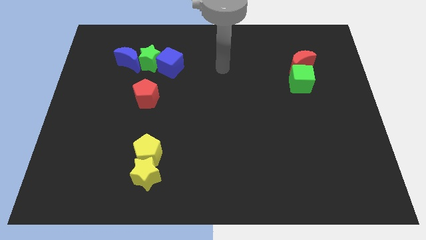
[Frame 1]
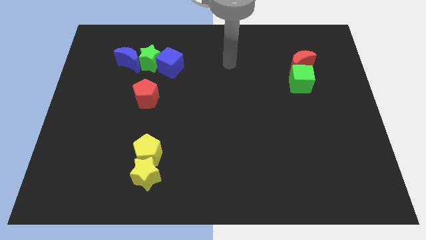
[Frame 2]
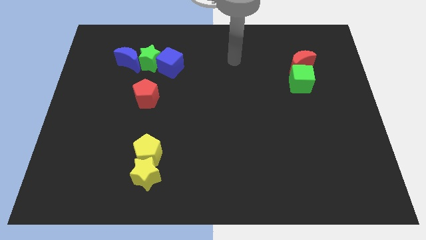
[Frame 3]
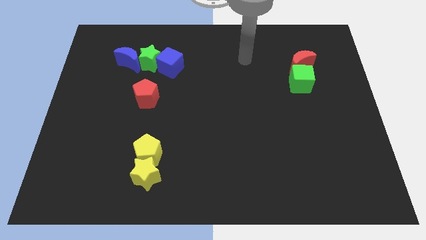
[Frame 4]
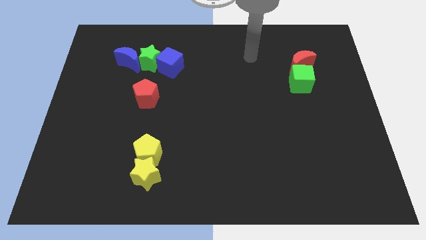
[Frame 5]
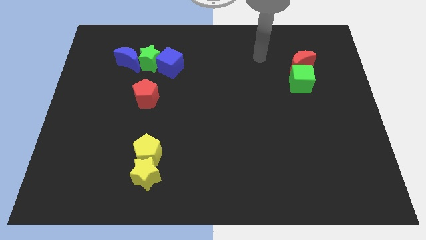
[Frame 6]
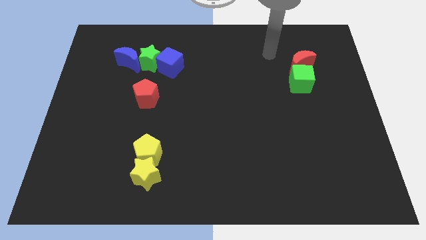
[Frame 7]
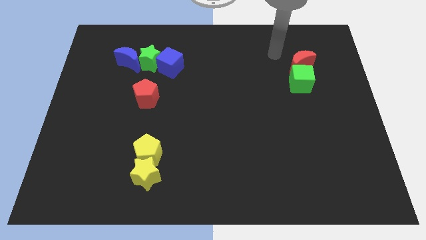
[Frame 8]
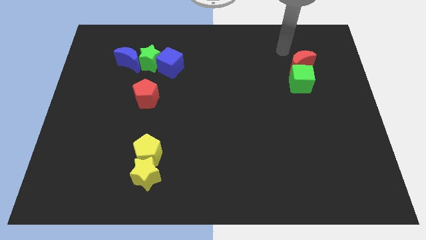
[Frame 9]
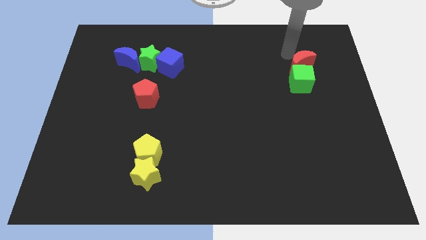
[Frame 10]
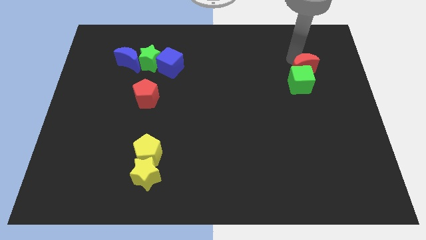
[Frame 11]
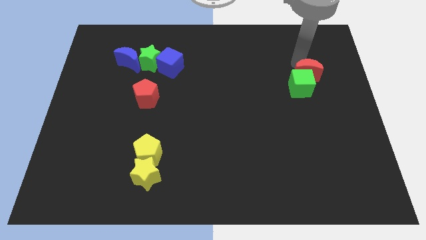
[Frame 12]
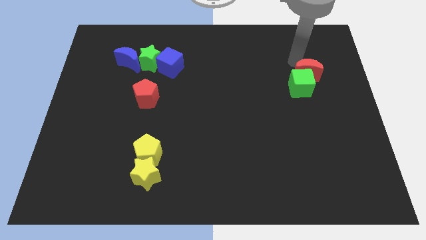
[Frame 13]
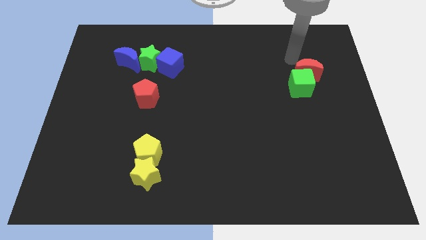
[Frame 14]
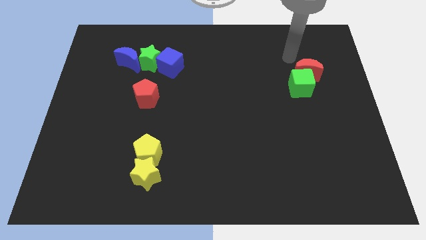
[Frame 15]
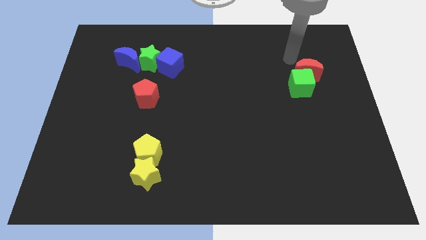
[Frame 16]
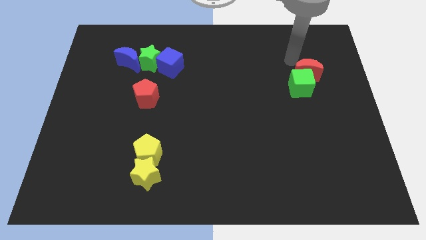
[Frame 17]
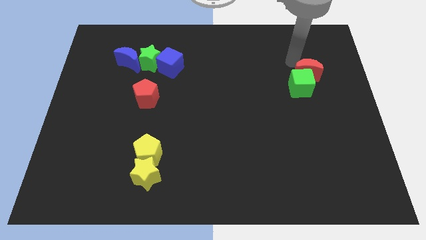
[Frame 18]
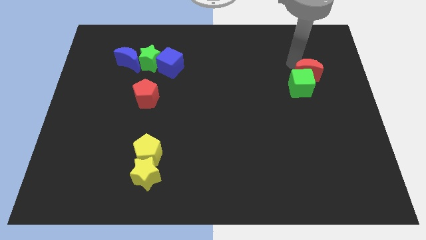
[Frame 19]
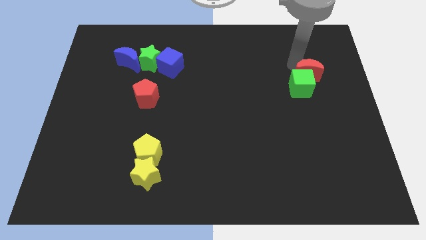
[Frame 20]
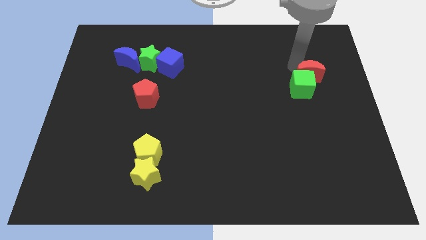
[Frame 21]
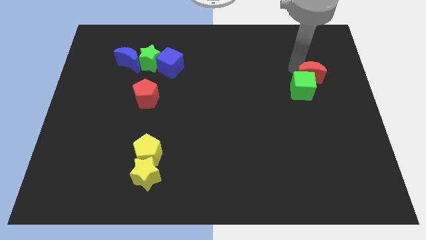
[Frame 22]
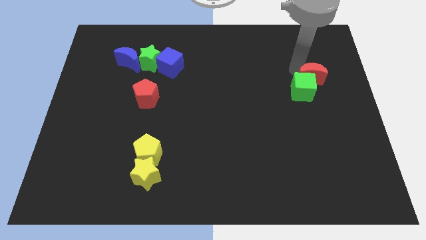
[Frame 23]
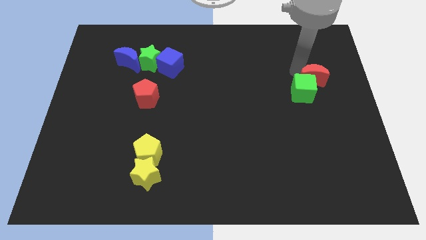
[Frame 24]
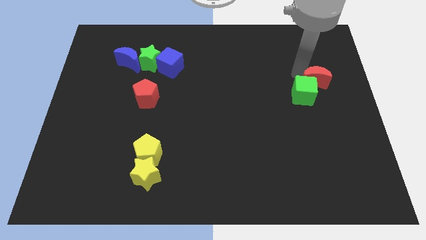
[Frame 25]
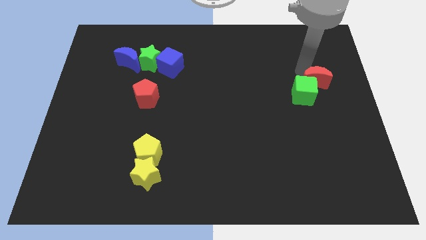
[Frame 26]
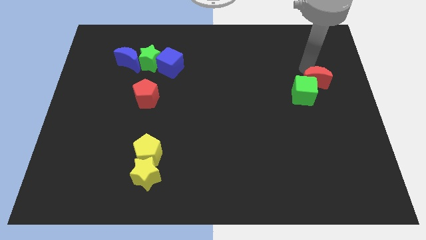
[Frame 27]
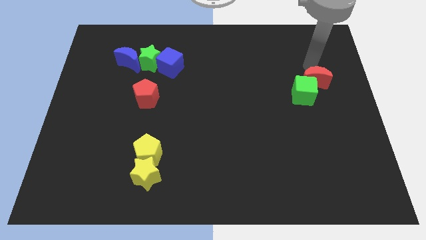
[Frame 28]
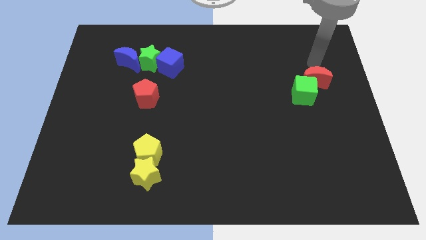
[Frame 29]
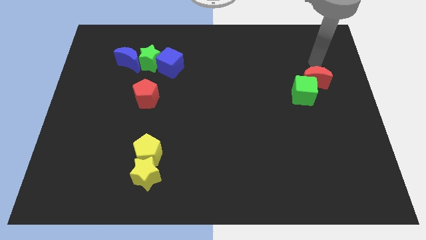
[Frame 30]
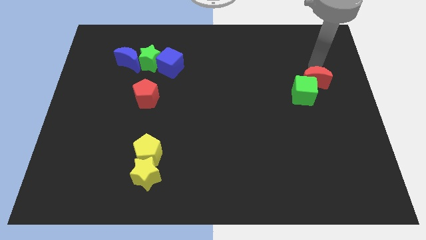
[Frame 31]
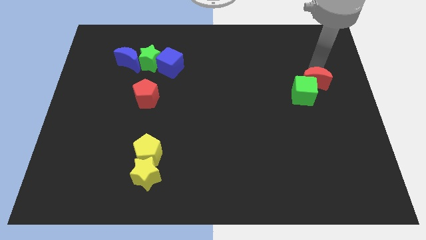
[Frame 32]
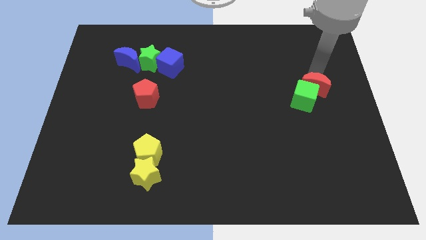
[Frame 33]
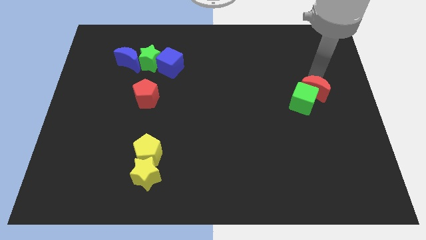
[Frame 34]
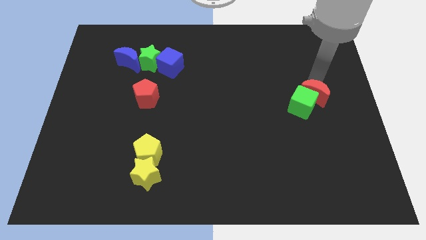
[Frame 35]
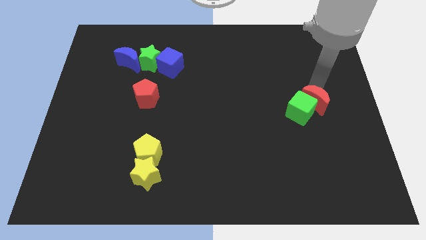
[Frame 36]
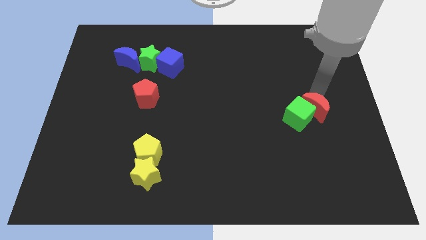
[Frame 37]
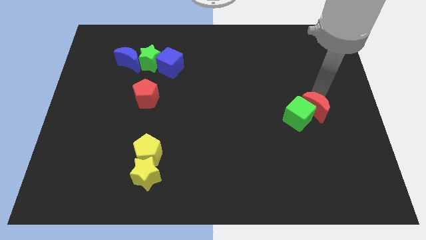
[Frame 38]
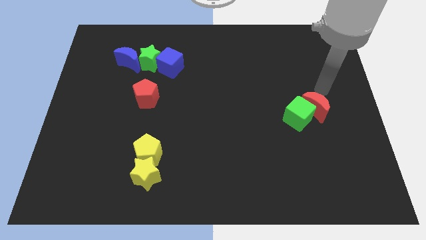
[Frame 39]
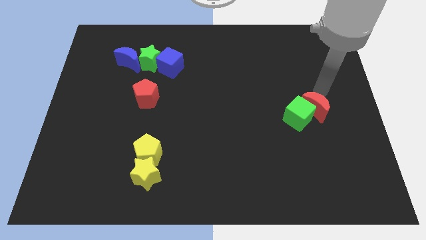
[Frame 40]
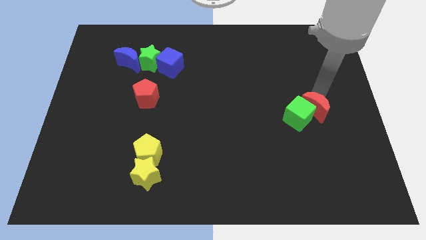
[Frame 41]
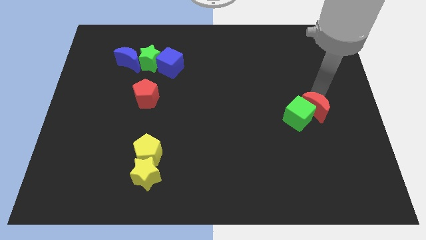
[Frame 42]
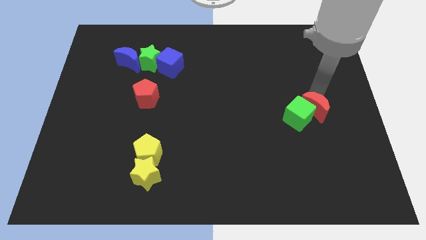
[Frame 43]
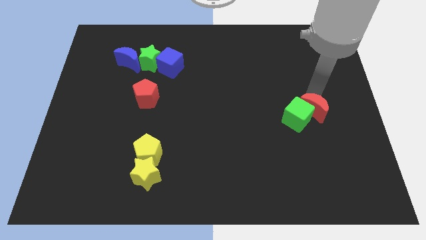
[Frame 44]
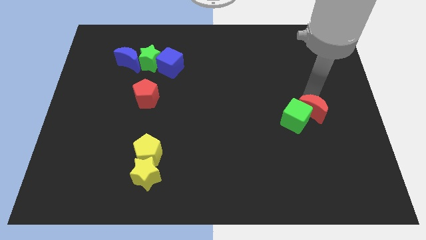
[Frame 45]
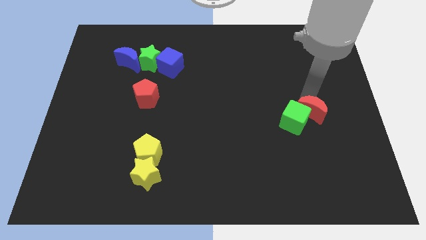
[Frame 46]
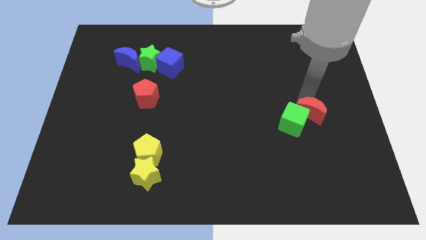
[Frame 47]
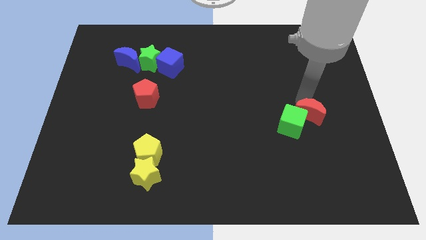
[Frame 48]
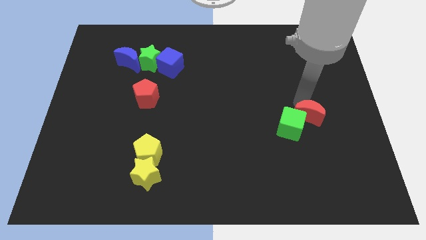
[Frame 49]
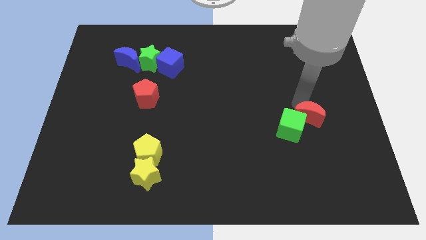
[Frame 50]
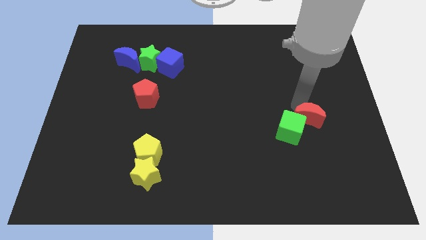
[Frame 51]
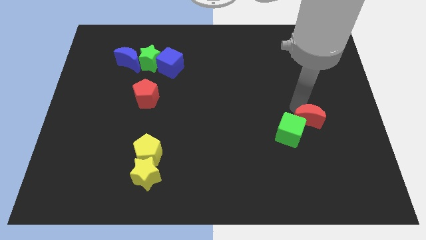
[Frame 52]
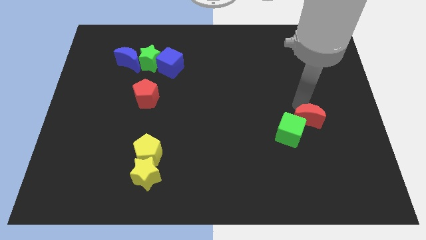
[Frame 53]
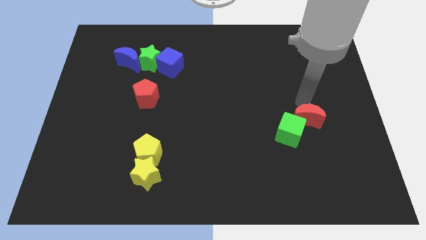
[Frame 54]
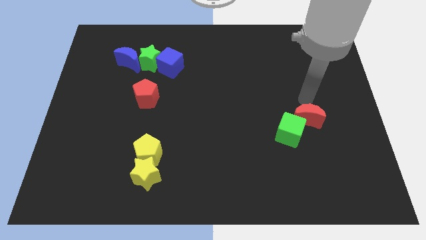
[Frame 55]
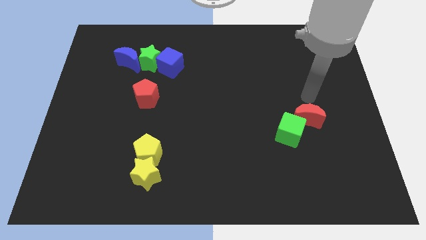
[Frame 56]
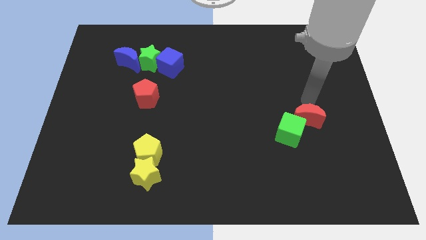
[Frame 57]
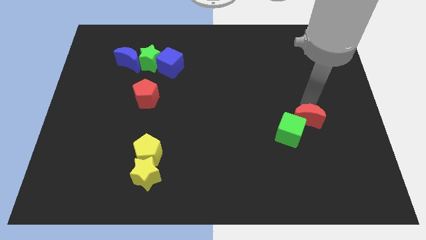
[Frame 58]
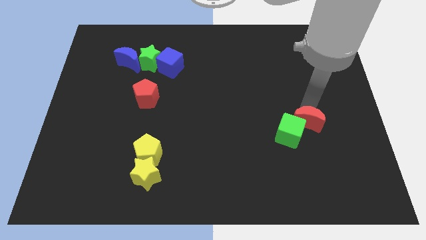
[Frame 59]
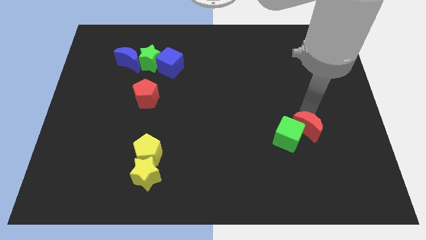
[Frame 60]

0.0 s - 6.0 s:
move the red moon down

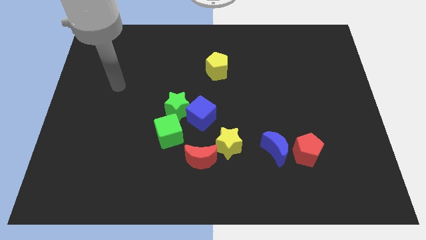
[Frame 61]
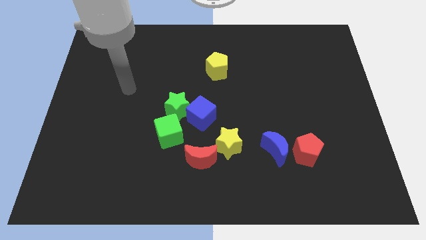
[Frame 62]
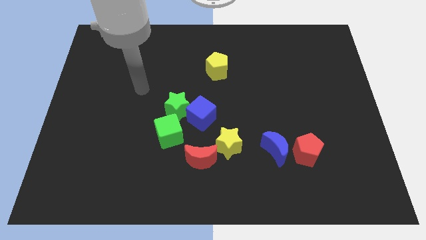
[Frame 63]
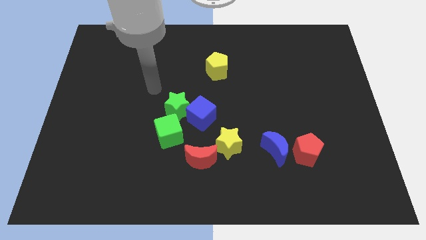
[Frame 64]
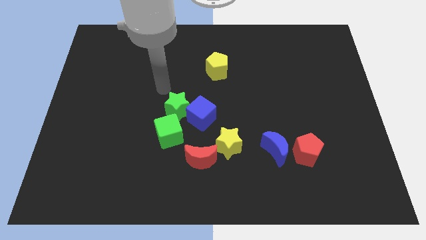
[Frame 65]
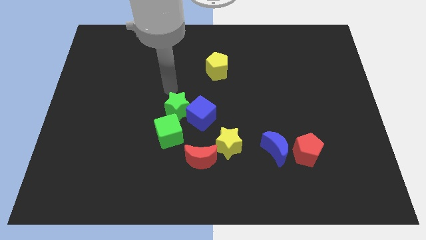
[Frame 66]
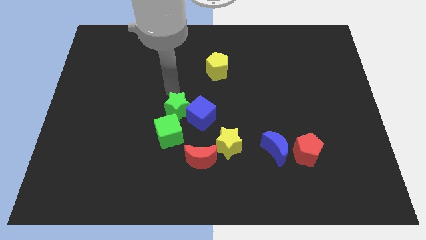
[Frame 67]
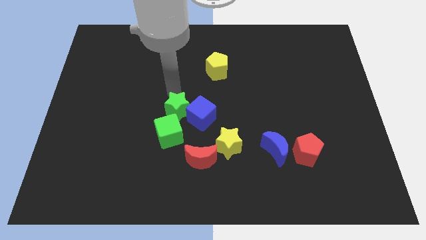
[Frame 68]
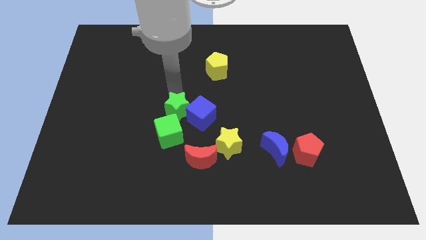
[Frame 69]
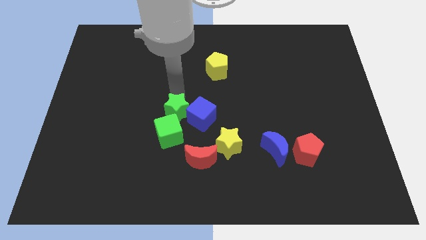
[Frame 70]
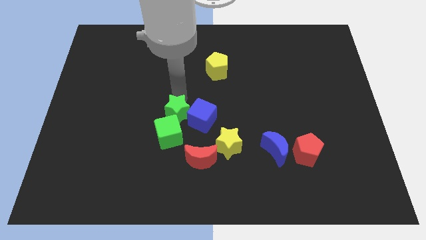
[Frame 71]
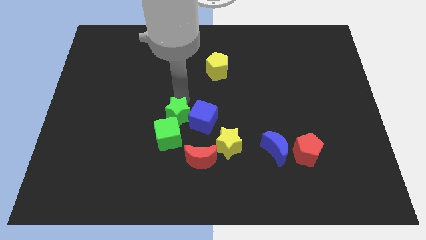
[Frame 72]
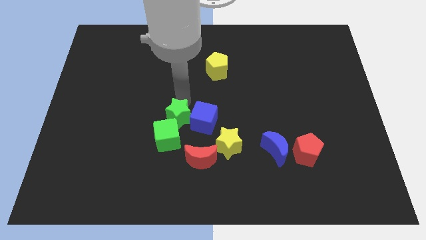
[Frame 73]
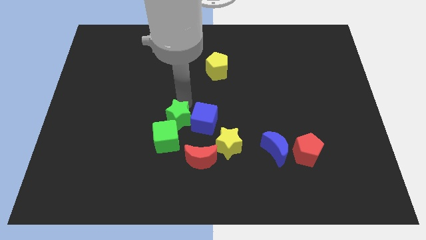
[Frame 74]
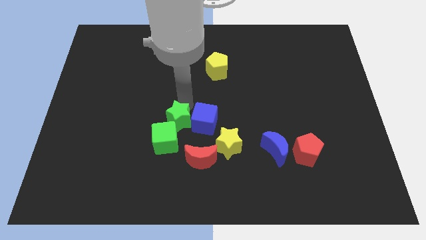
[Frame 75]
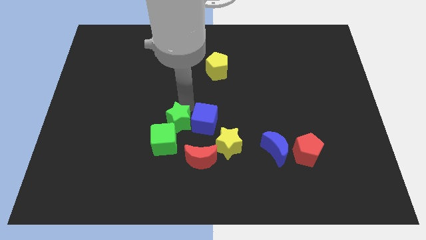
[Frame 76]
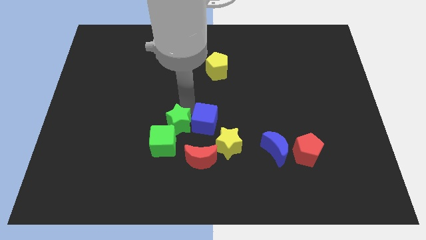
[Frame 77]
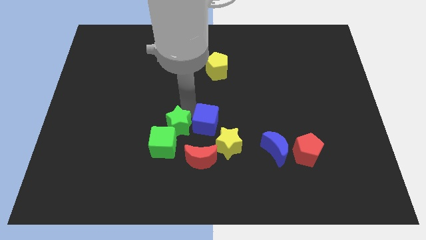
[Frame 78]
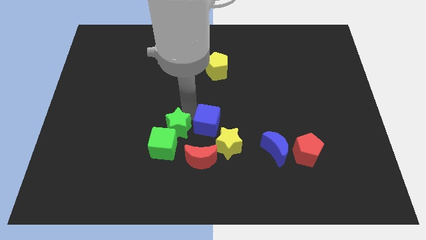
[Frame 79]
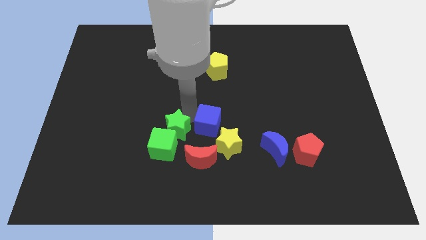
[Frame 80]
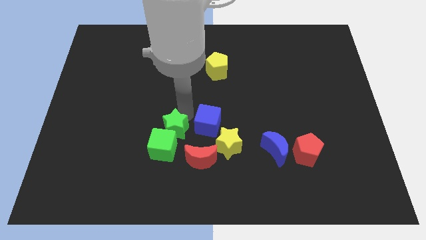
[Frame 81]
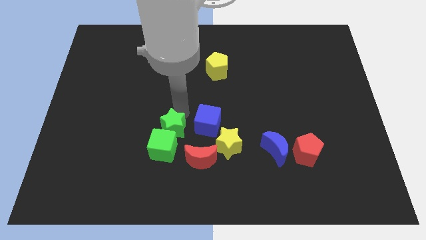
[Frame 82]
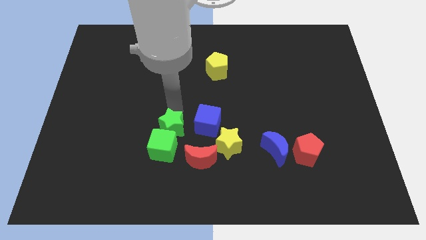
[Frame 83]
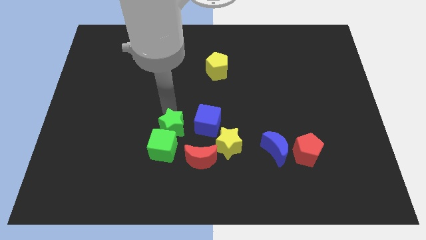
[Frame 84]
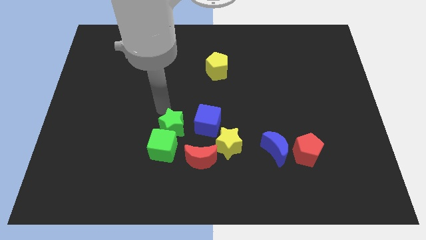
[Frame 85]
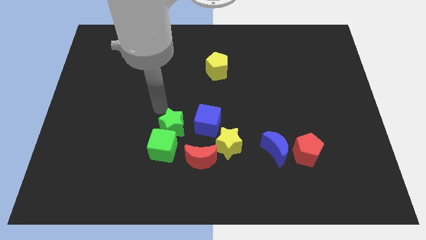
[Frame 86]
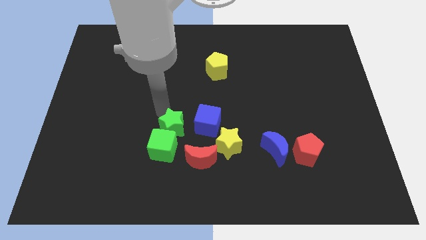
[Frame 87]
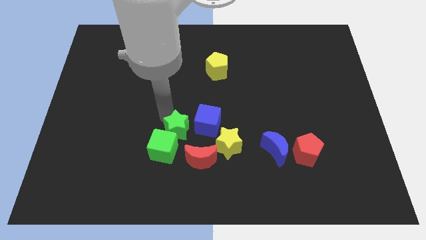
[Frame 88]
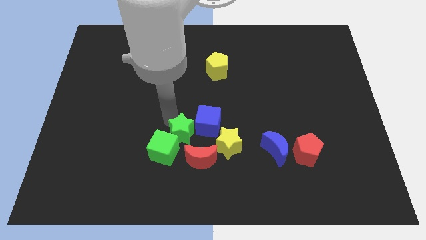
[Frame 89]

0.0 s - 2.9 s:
slide the green star a bit down
